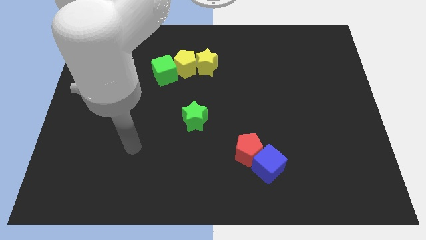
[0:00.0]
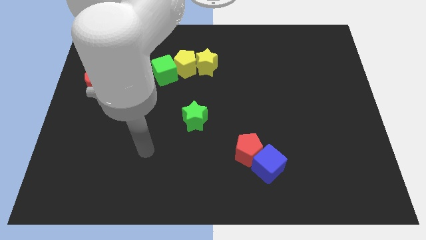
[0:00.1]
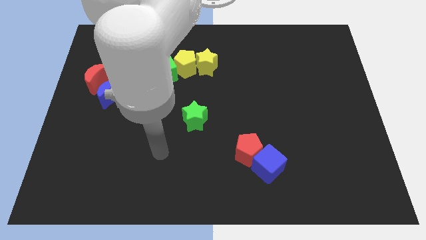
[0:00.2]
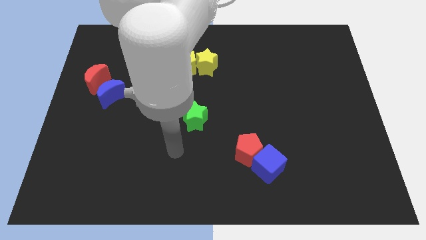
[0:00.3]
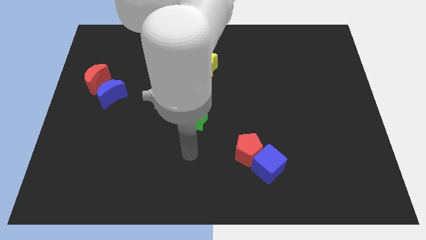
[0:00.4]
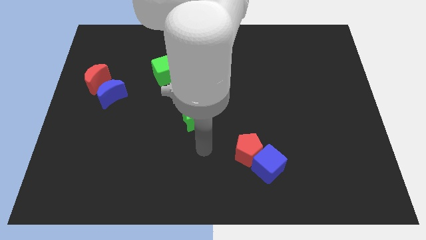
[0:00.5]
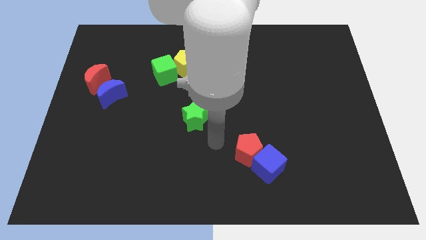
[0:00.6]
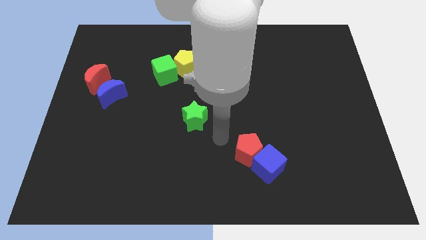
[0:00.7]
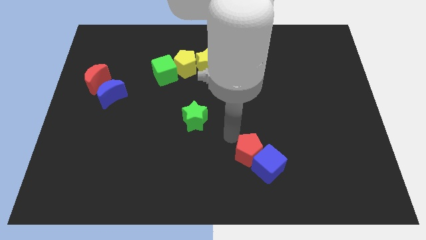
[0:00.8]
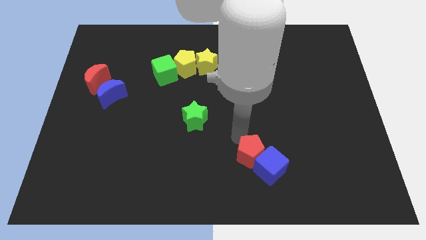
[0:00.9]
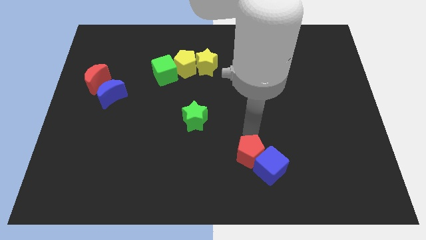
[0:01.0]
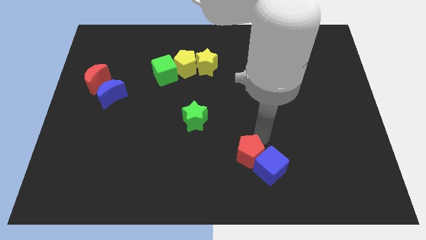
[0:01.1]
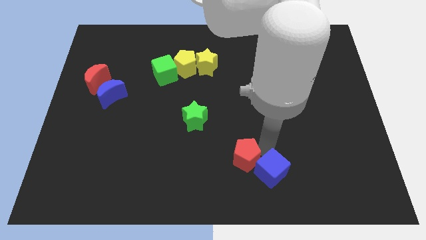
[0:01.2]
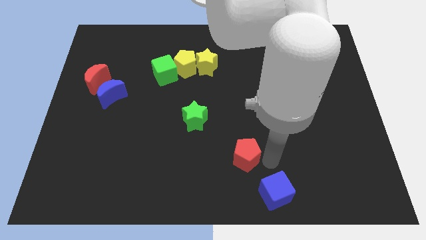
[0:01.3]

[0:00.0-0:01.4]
separate the red pentagon from the blue cube

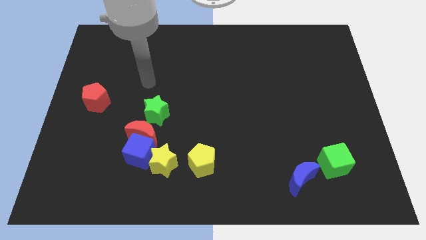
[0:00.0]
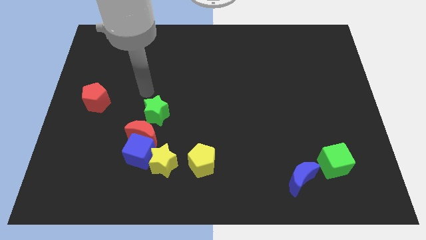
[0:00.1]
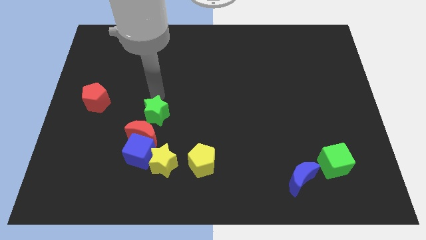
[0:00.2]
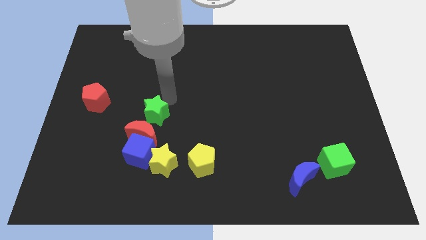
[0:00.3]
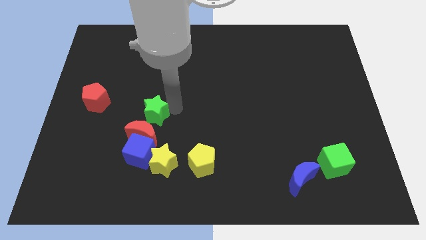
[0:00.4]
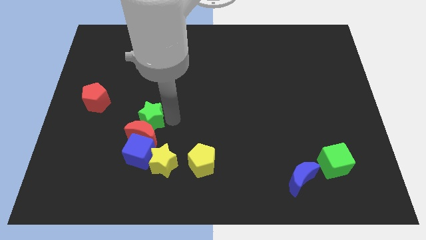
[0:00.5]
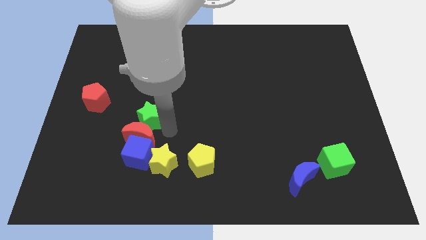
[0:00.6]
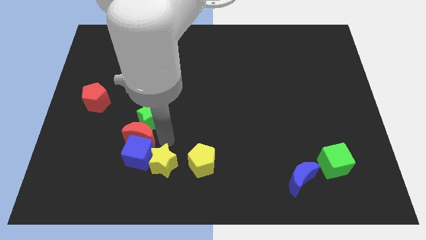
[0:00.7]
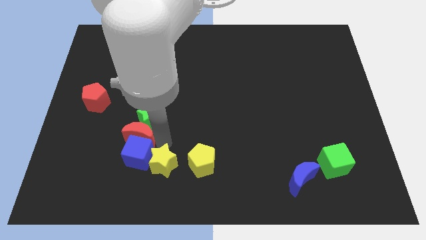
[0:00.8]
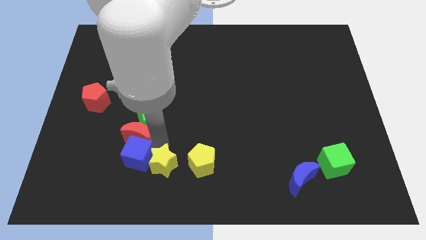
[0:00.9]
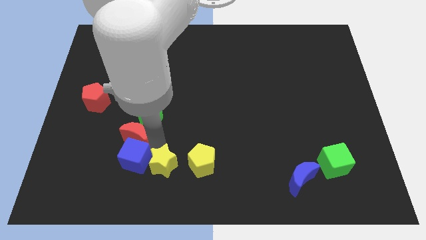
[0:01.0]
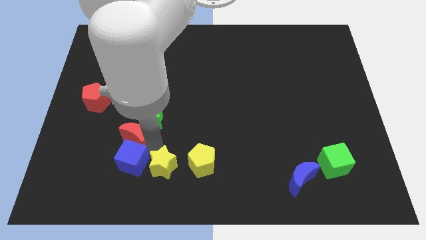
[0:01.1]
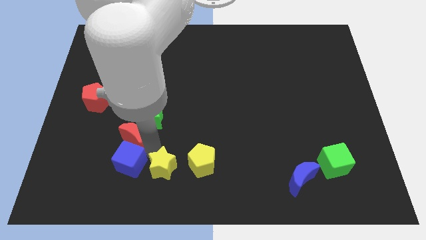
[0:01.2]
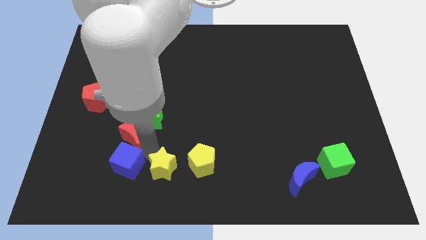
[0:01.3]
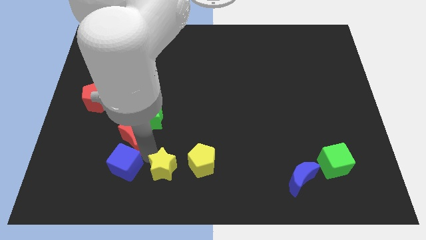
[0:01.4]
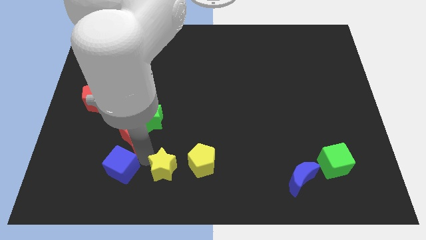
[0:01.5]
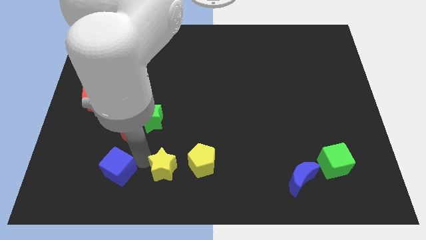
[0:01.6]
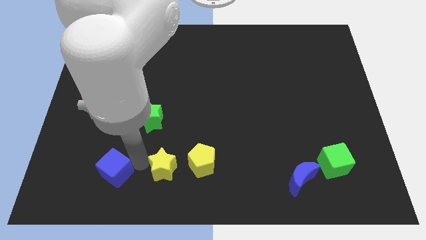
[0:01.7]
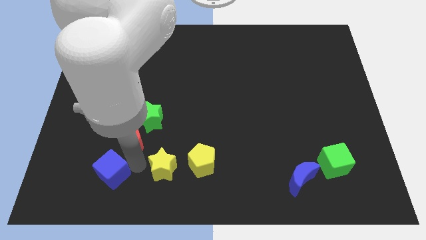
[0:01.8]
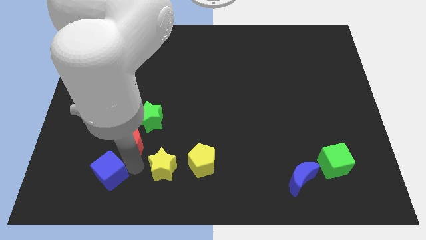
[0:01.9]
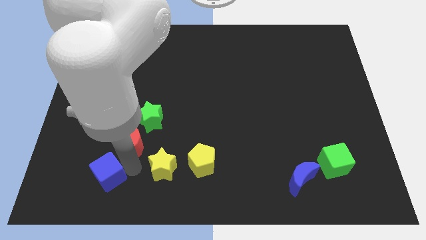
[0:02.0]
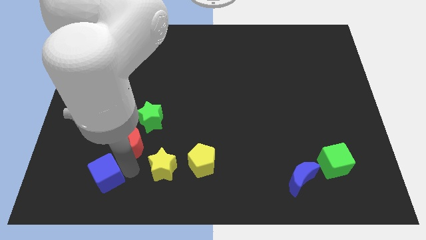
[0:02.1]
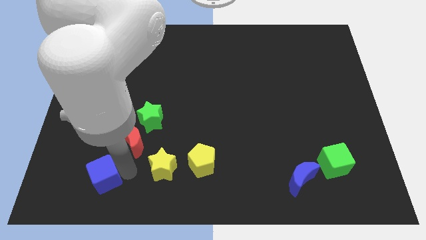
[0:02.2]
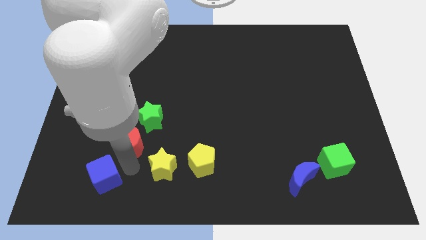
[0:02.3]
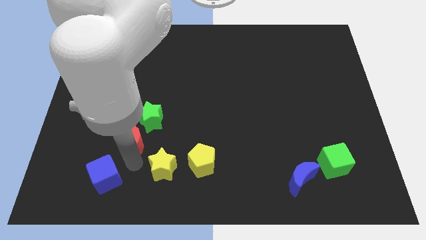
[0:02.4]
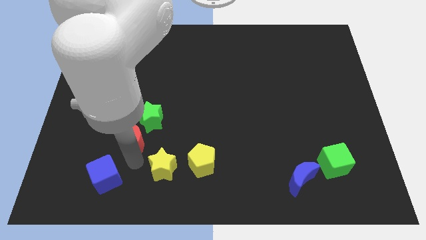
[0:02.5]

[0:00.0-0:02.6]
separate the blue cube from the red moon and yellow star

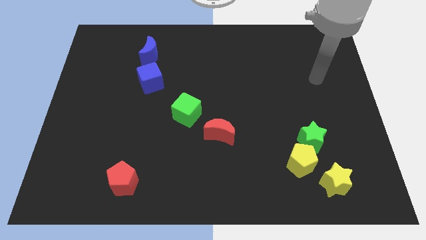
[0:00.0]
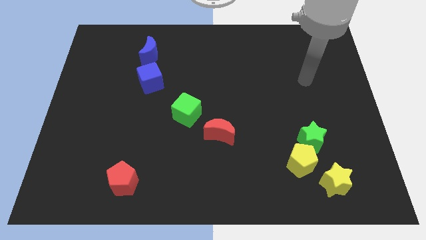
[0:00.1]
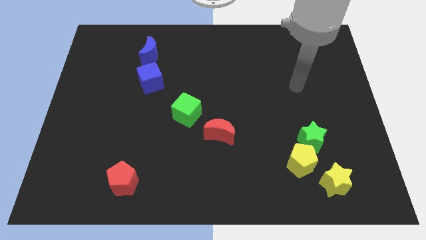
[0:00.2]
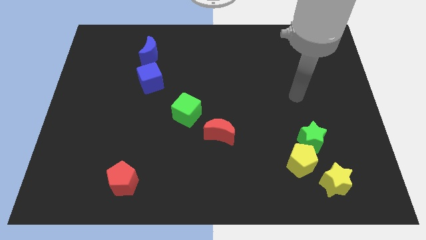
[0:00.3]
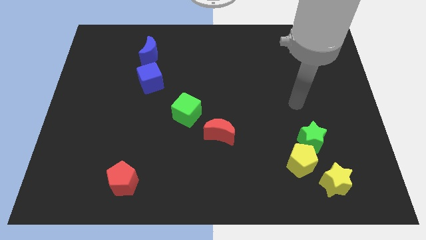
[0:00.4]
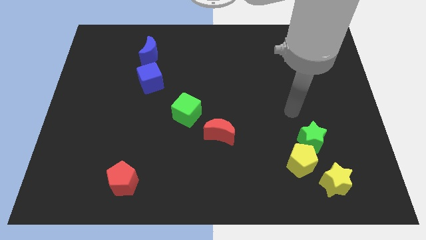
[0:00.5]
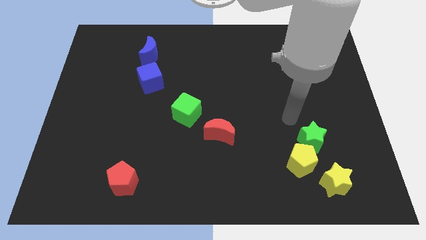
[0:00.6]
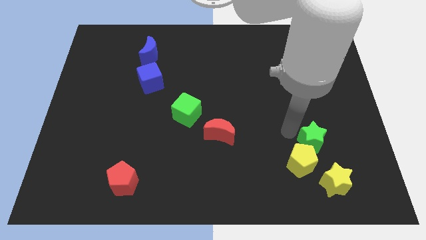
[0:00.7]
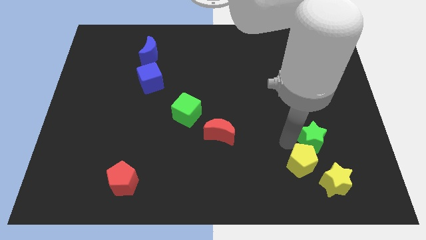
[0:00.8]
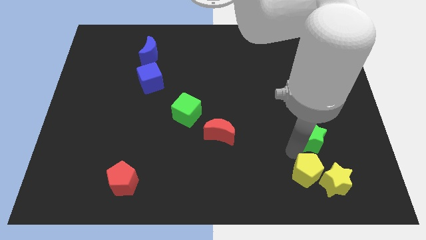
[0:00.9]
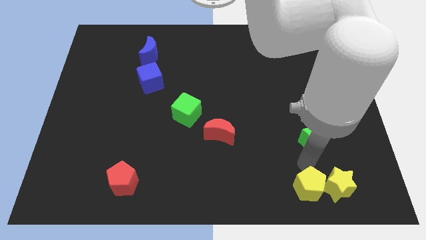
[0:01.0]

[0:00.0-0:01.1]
separate the green star from the yellow pentagon

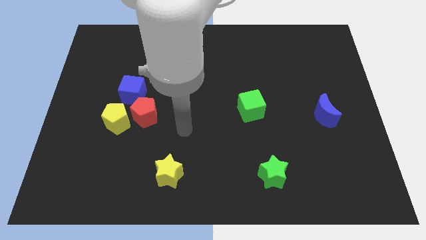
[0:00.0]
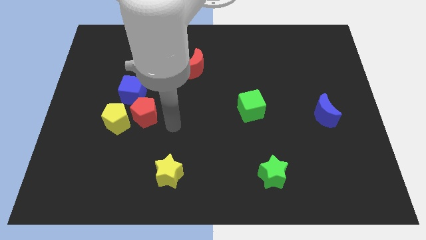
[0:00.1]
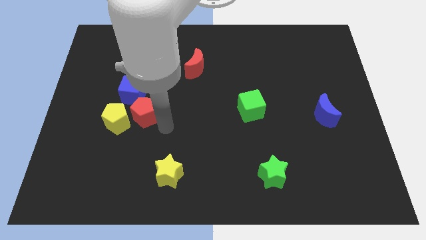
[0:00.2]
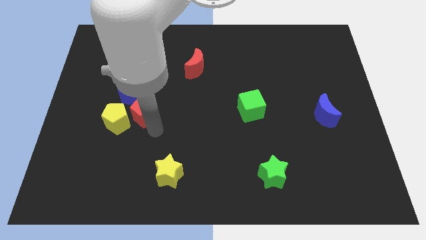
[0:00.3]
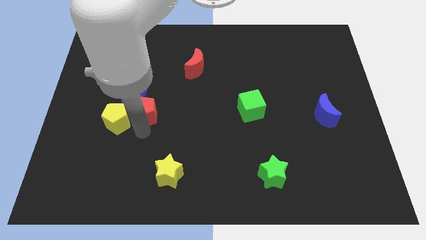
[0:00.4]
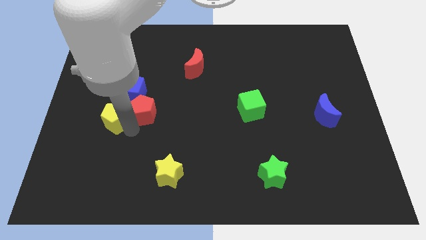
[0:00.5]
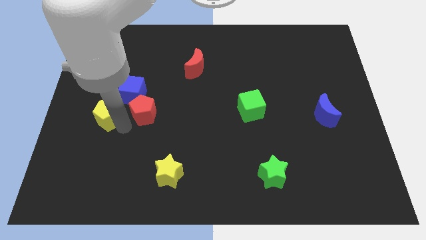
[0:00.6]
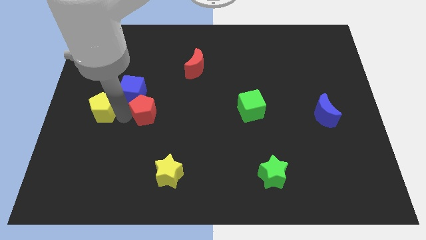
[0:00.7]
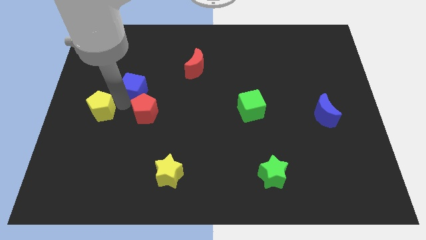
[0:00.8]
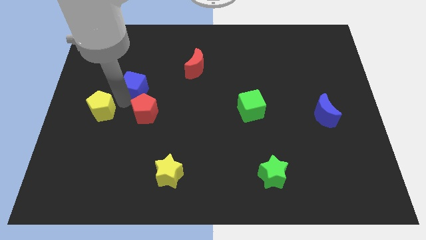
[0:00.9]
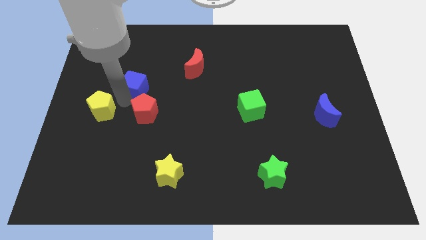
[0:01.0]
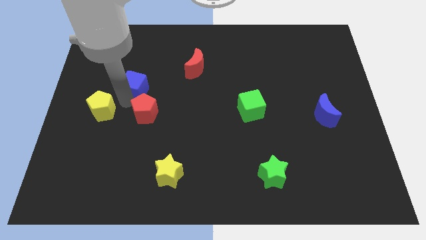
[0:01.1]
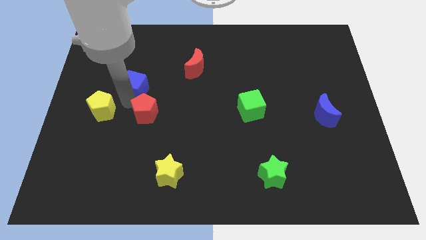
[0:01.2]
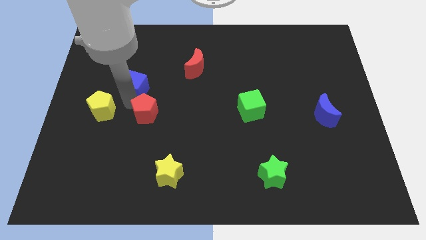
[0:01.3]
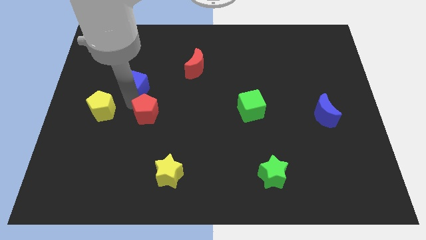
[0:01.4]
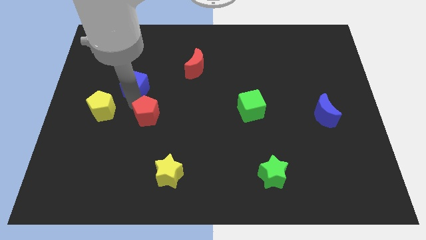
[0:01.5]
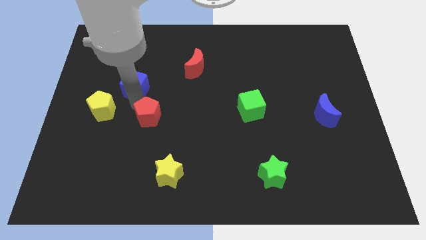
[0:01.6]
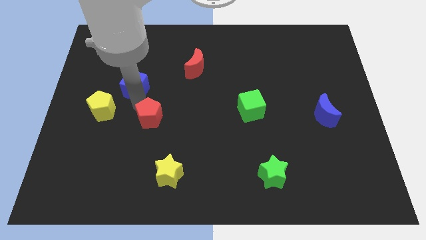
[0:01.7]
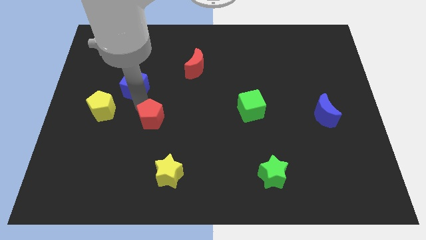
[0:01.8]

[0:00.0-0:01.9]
move the red pentagon away from the yellow pentagon and blue cube

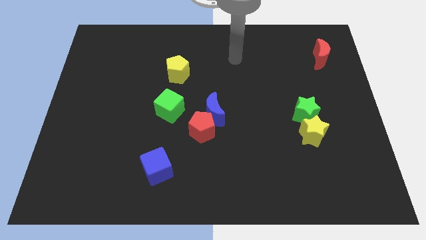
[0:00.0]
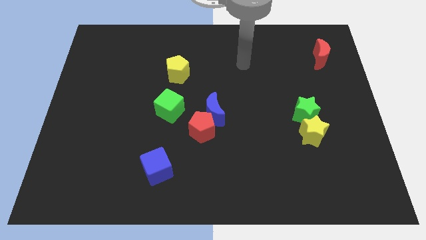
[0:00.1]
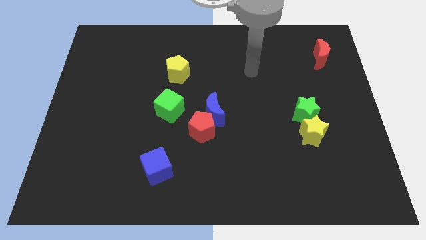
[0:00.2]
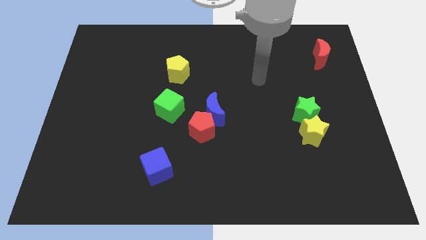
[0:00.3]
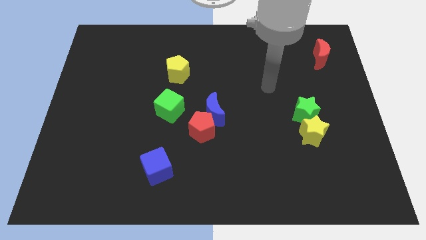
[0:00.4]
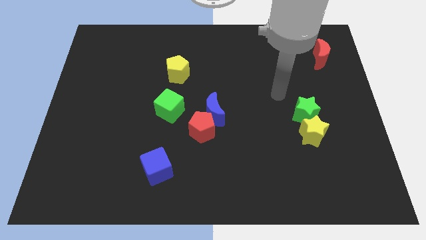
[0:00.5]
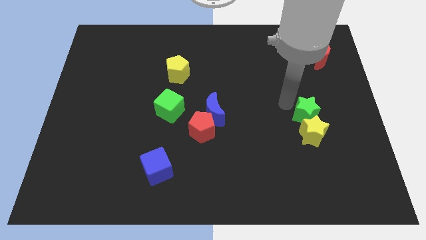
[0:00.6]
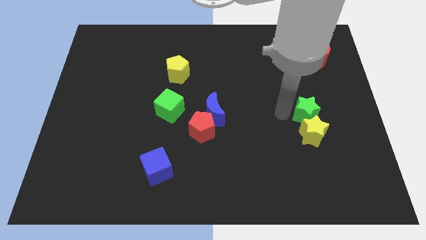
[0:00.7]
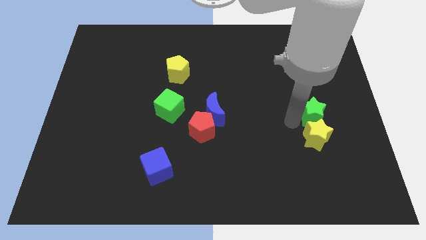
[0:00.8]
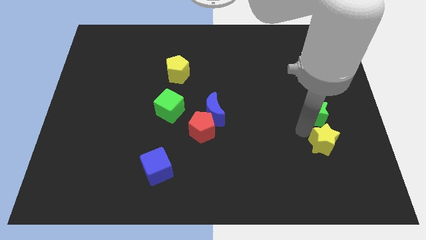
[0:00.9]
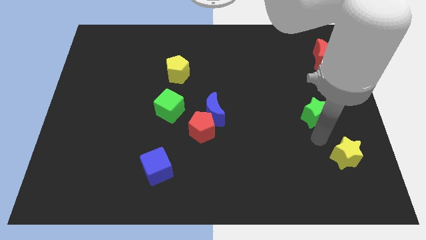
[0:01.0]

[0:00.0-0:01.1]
pull the green star apart from the yellow star

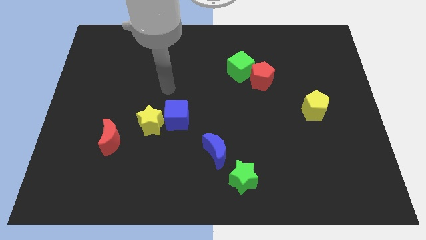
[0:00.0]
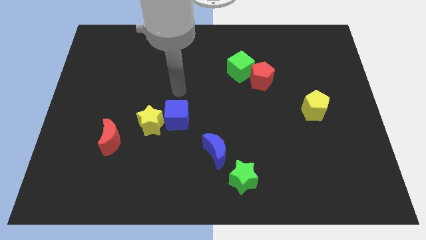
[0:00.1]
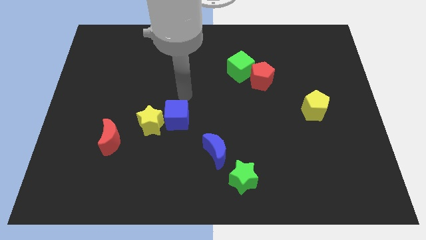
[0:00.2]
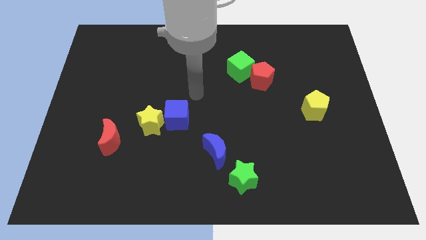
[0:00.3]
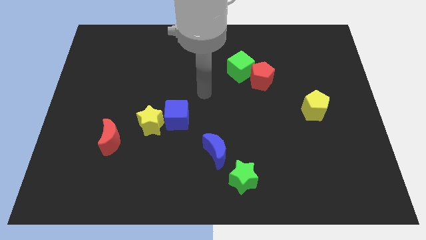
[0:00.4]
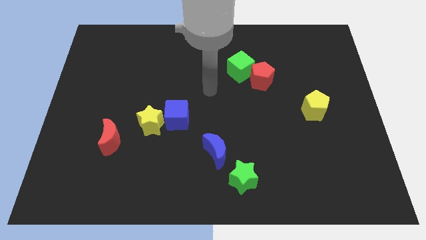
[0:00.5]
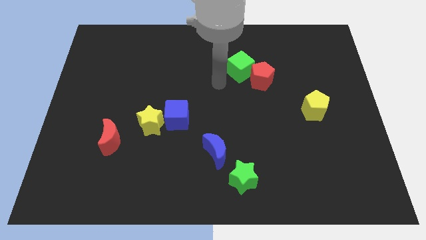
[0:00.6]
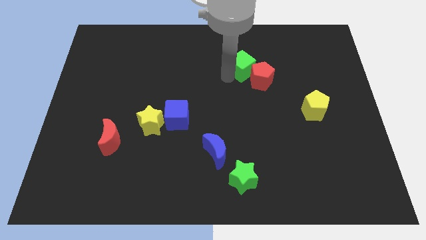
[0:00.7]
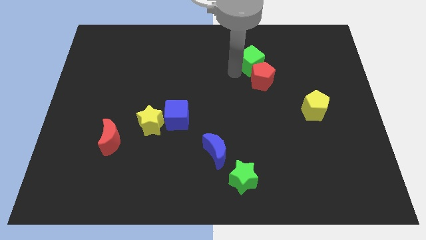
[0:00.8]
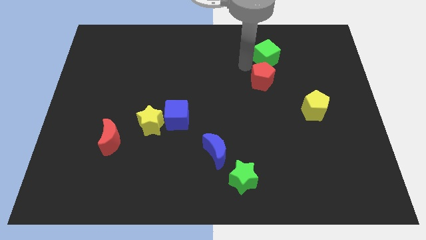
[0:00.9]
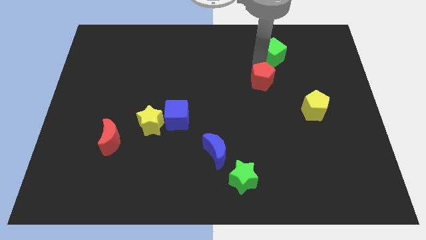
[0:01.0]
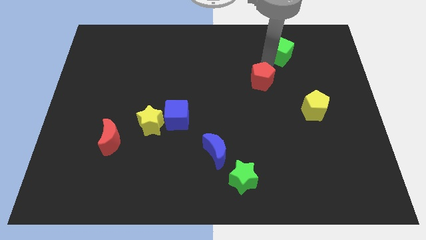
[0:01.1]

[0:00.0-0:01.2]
pull the red pentagon apart from the green cube
